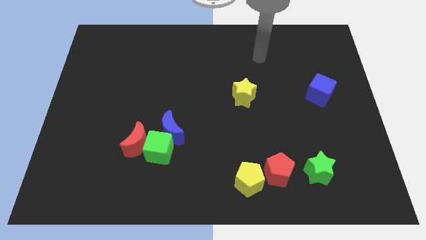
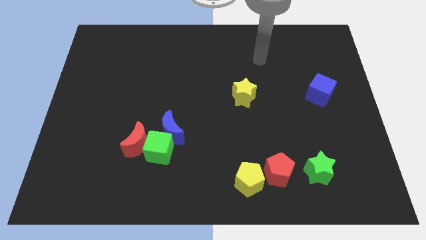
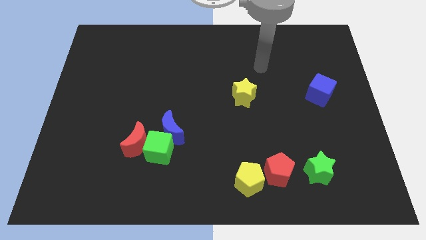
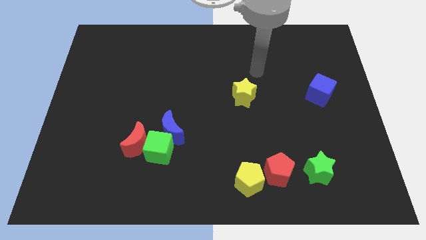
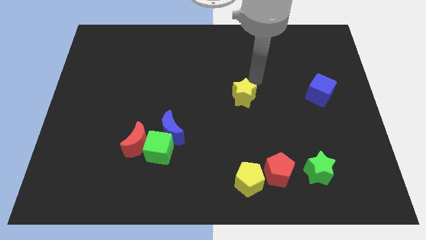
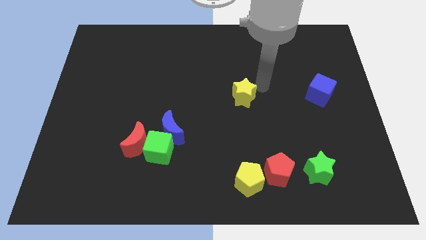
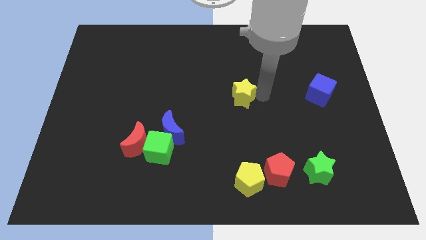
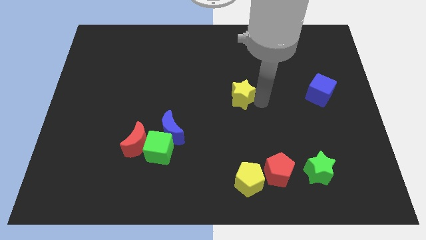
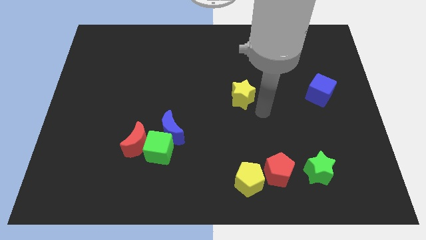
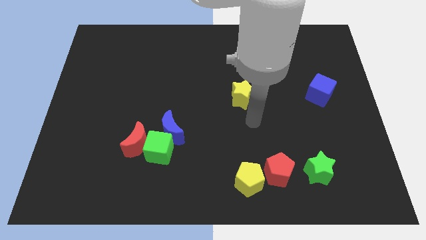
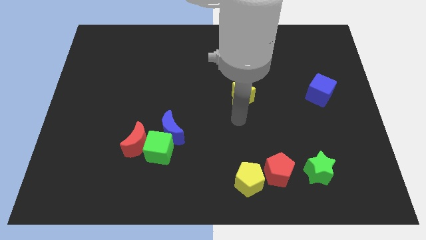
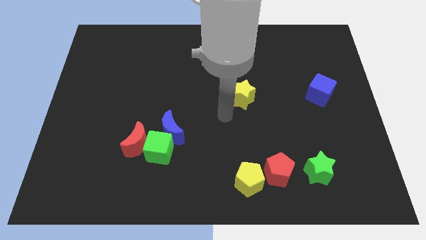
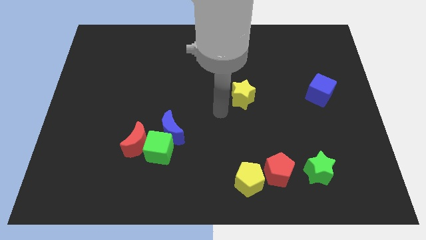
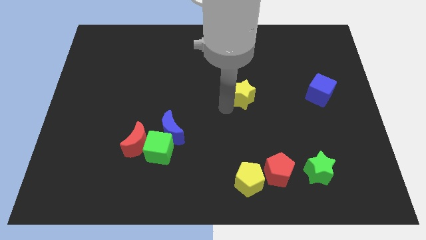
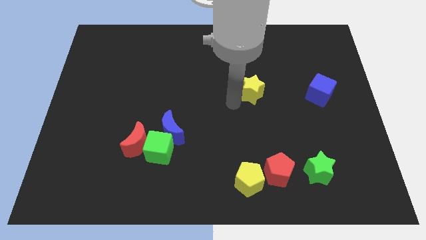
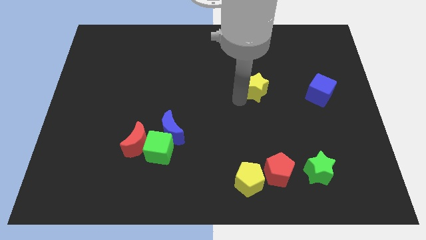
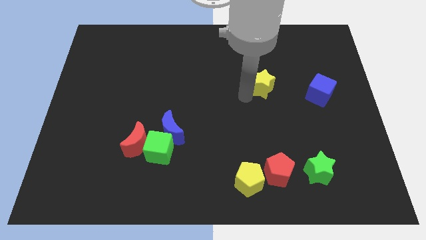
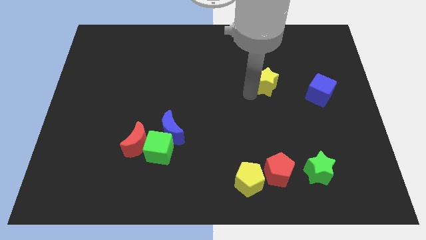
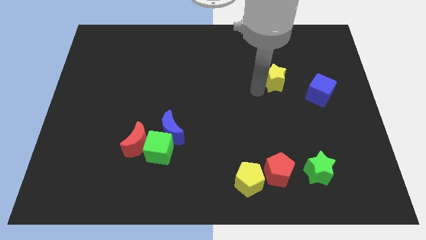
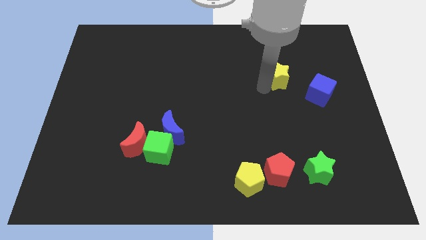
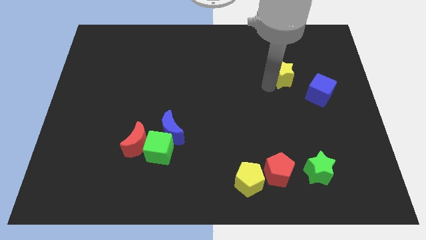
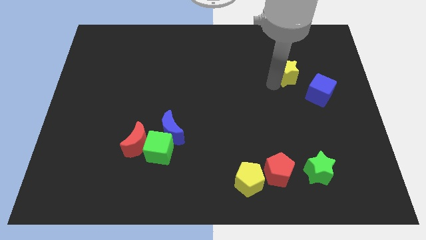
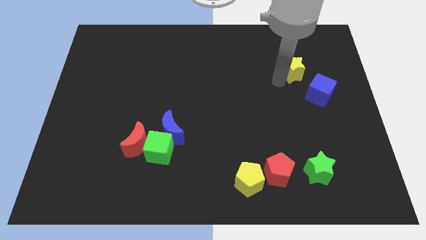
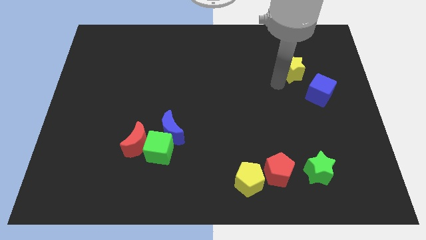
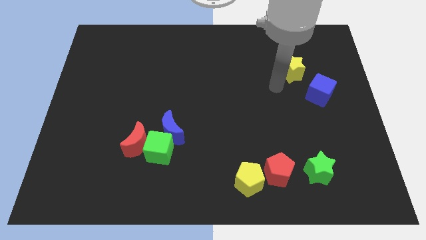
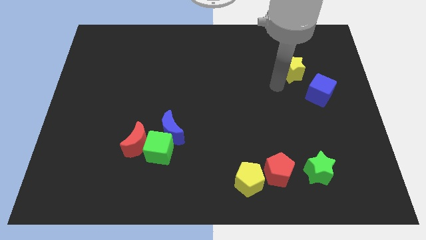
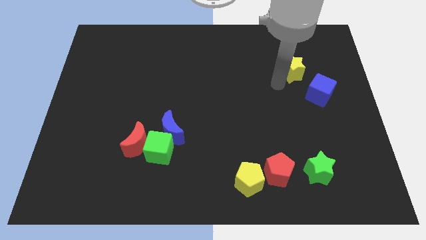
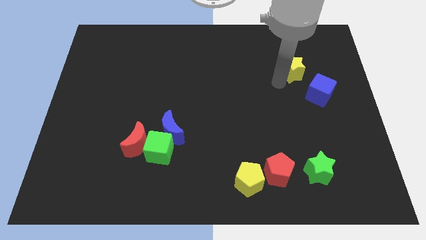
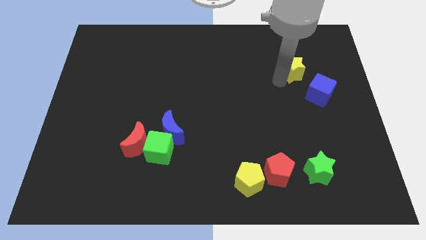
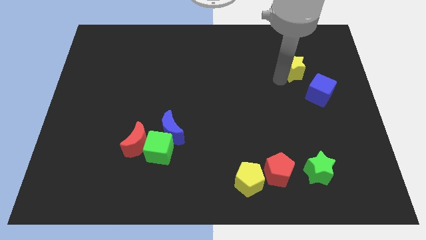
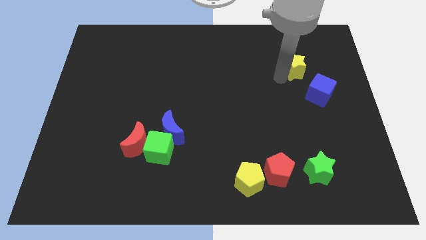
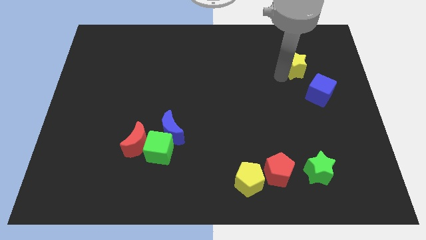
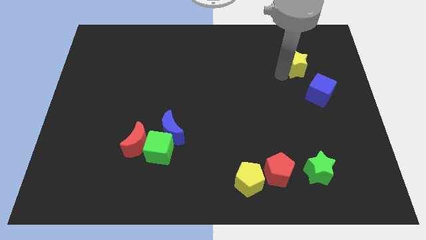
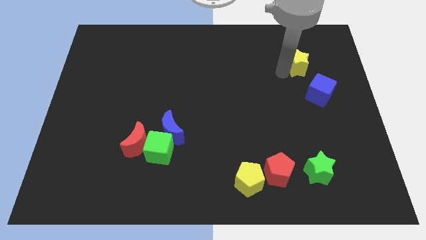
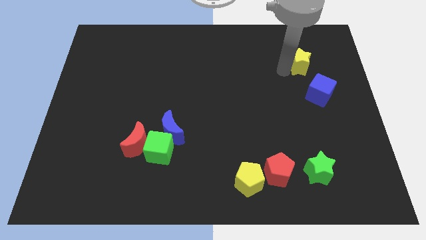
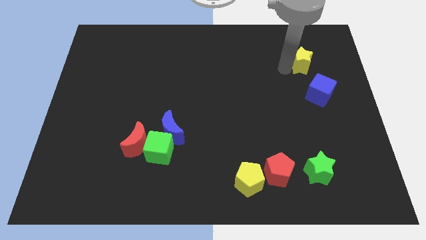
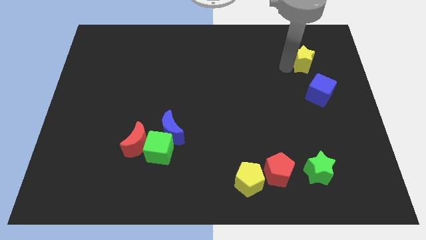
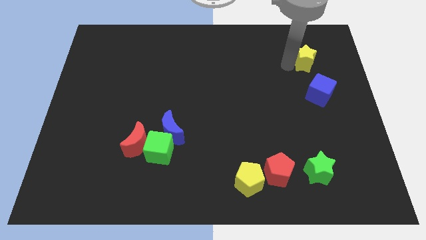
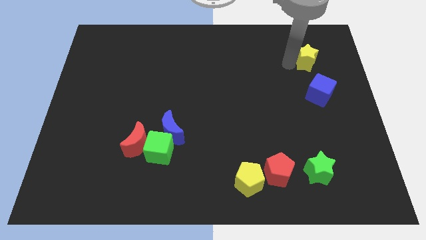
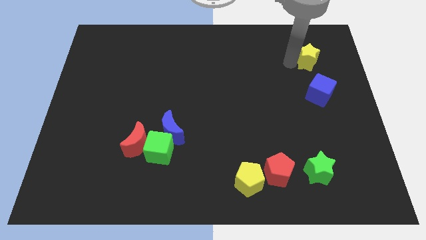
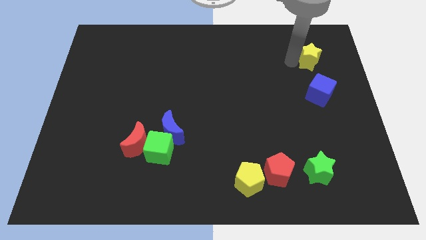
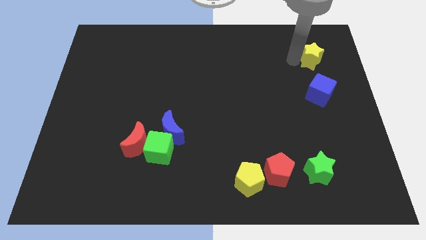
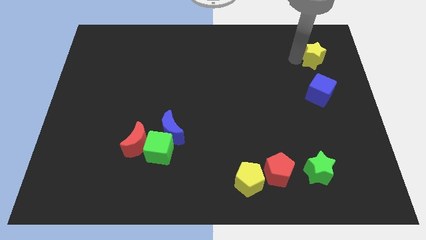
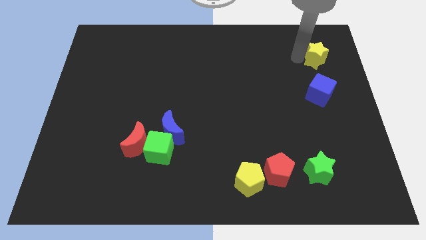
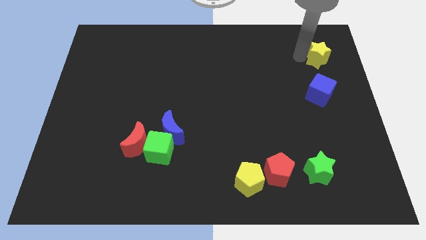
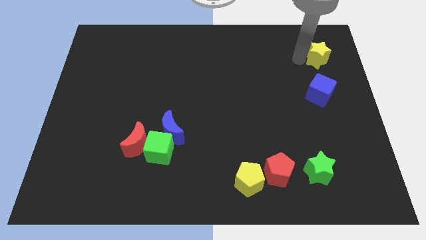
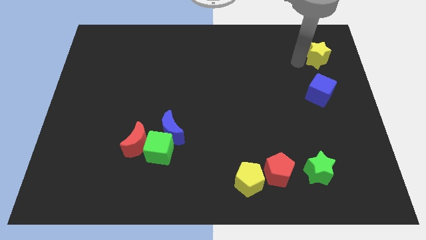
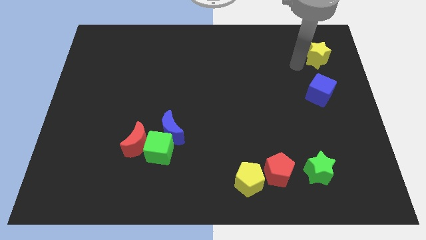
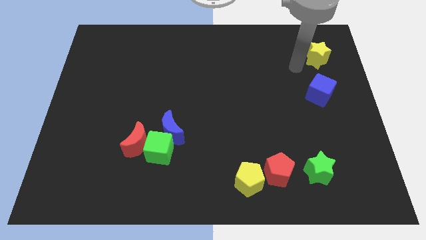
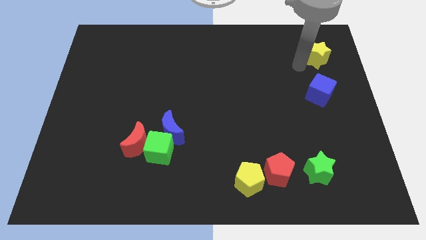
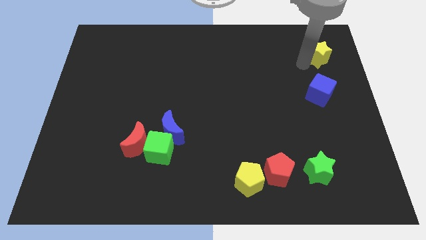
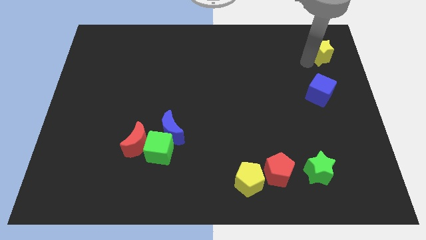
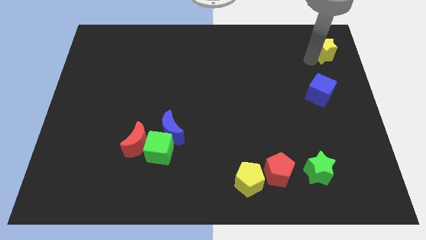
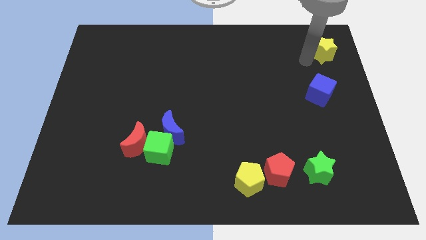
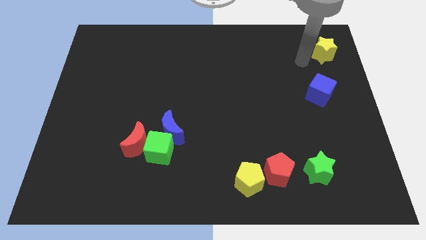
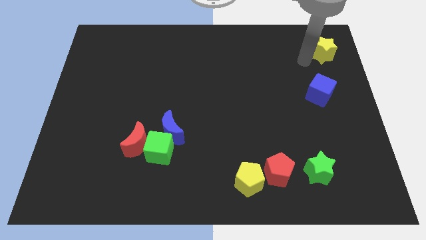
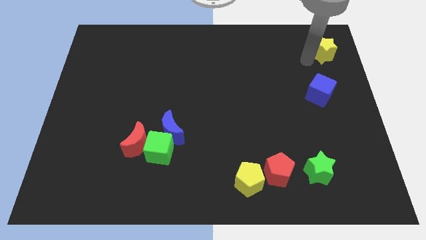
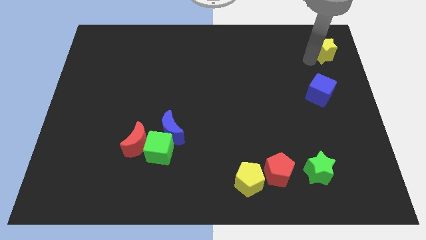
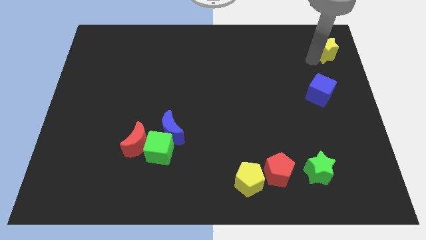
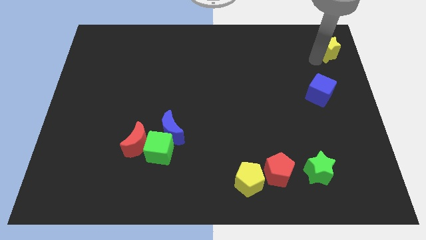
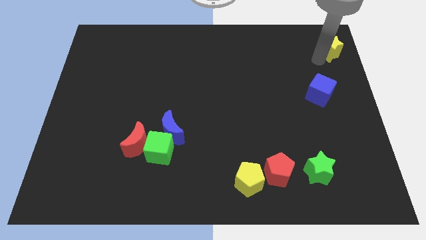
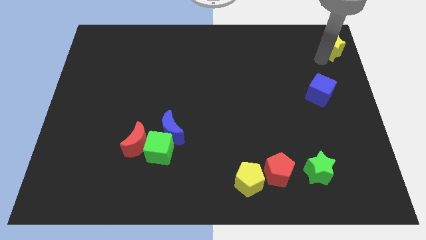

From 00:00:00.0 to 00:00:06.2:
put the yellow star to the top right corner

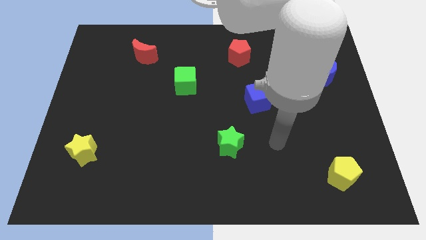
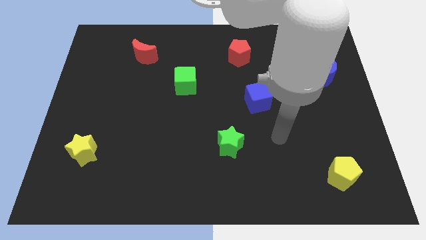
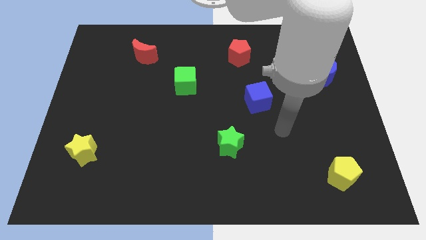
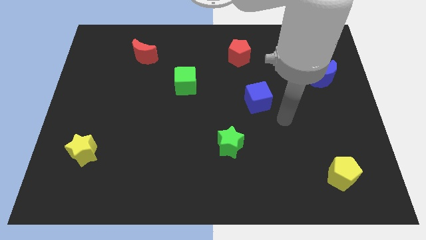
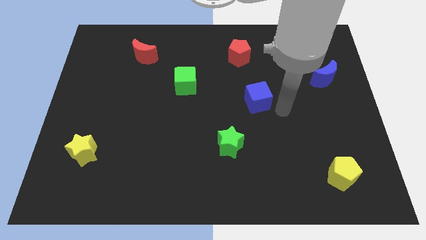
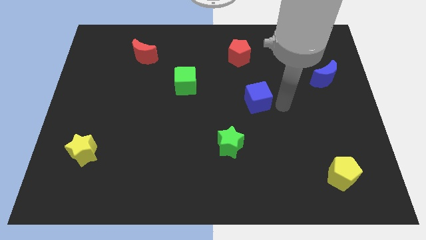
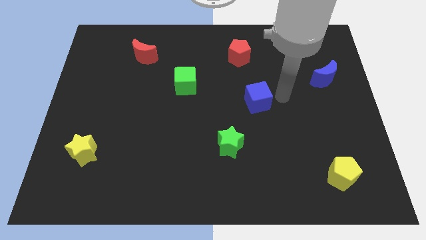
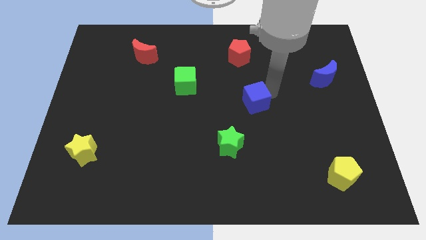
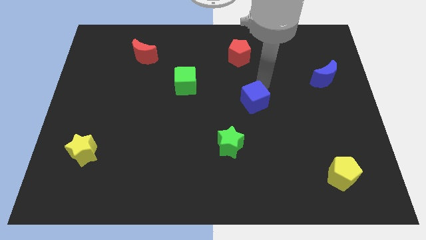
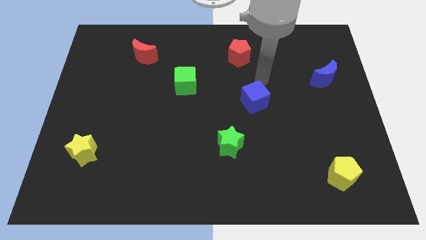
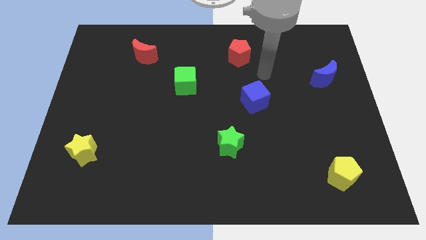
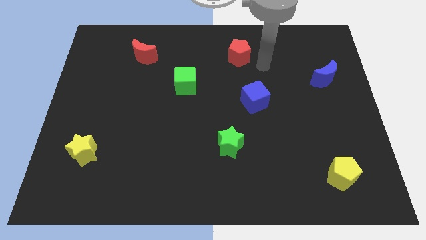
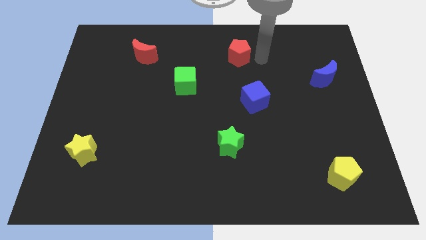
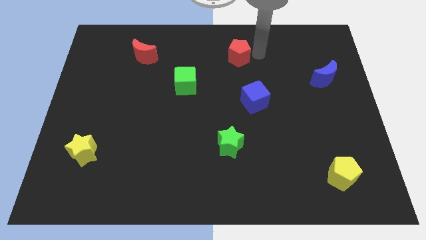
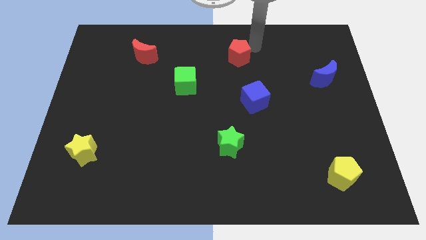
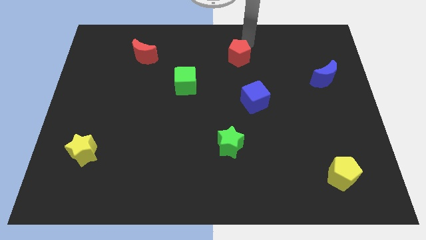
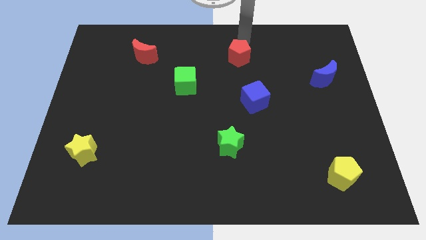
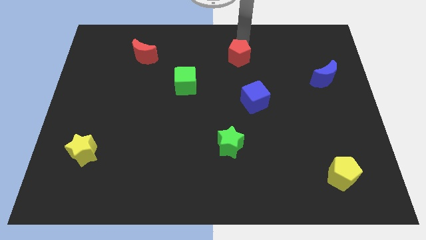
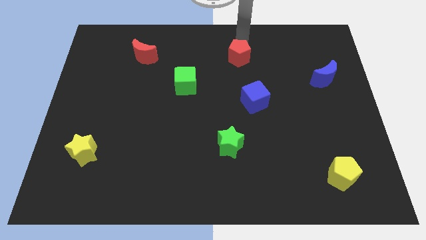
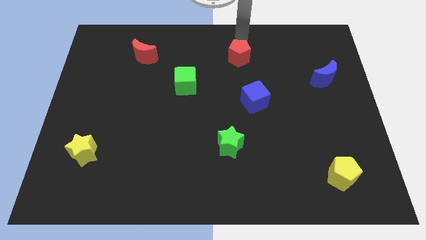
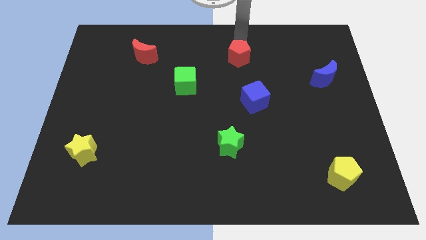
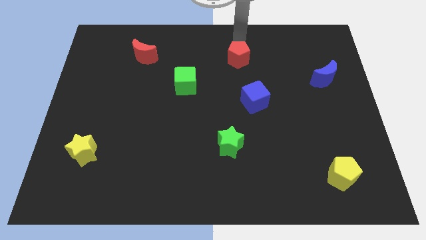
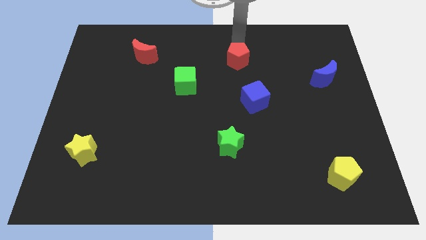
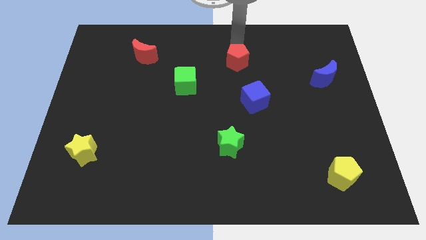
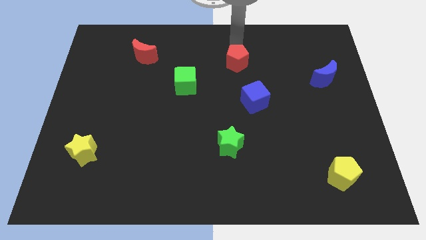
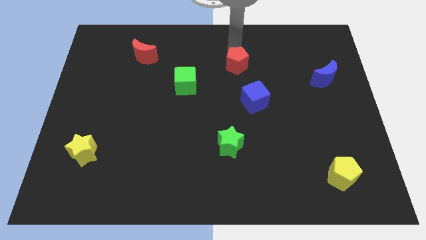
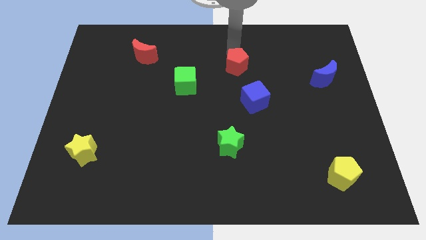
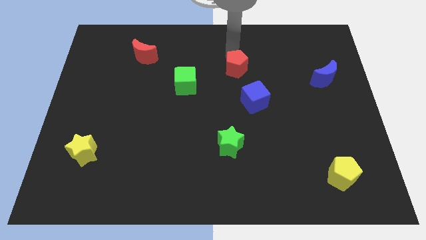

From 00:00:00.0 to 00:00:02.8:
move the red pentagon to the center of the board
